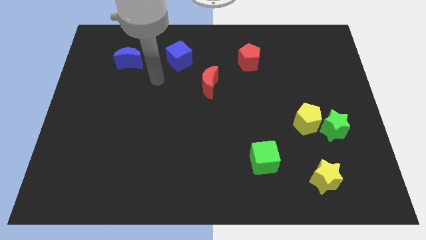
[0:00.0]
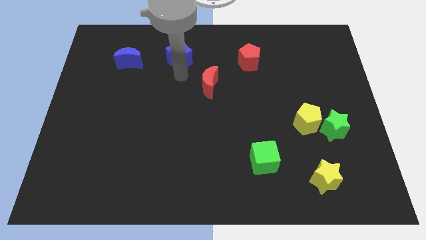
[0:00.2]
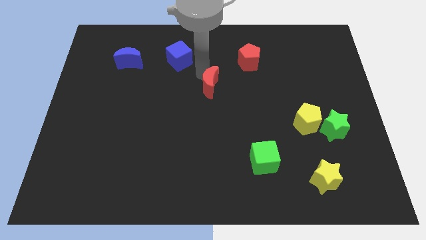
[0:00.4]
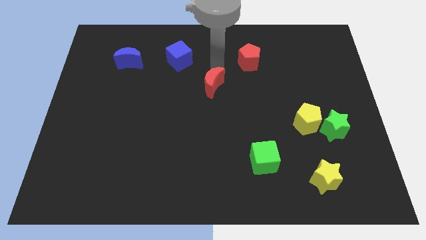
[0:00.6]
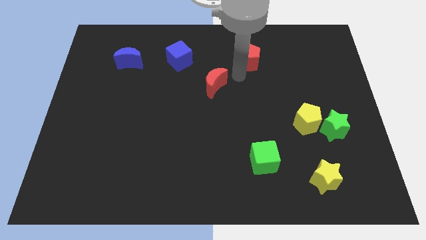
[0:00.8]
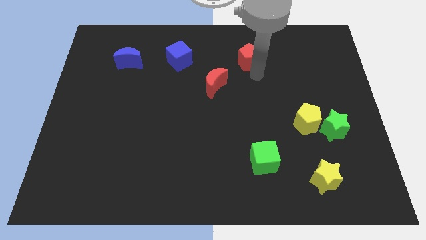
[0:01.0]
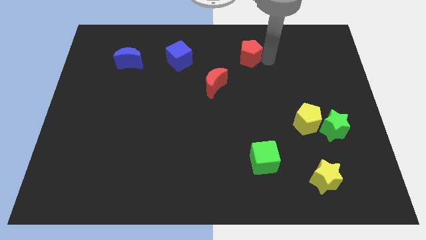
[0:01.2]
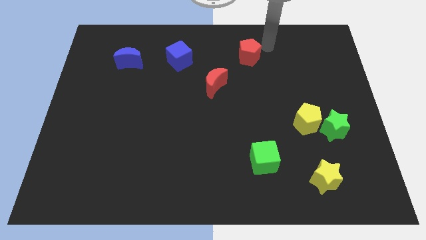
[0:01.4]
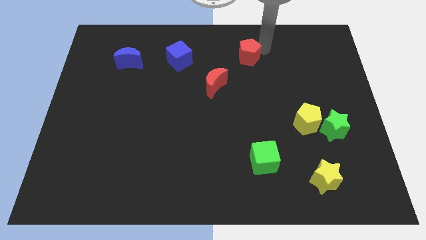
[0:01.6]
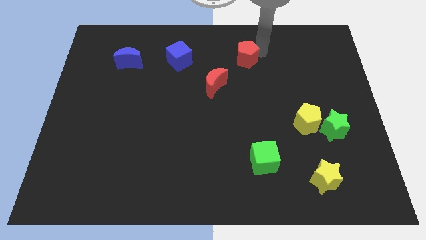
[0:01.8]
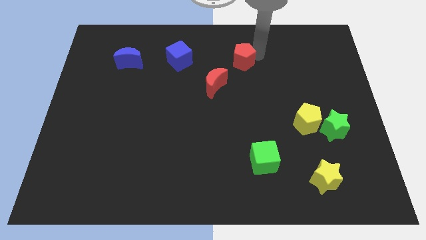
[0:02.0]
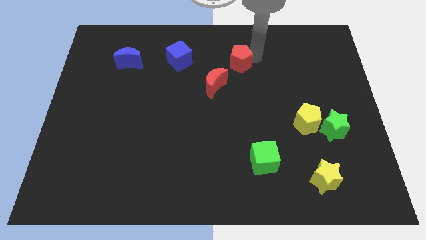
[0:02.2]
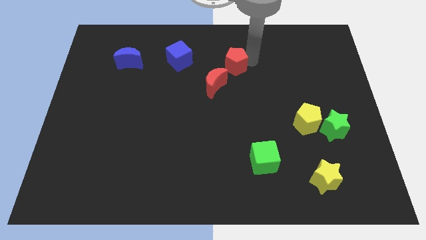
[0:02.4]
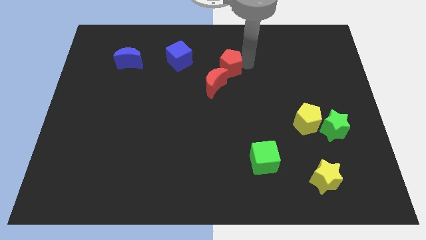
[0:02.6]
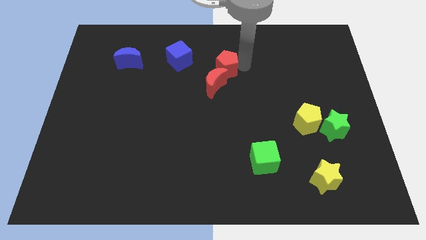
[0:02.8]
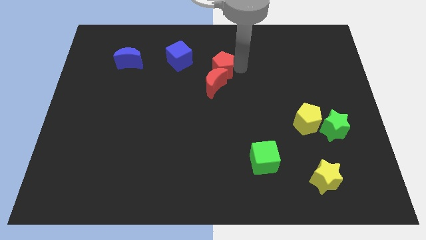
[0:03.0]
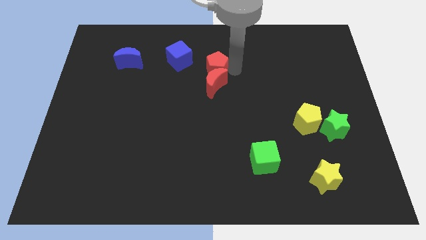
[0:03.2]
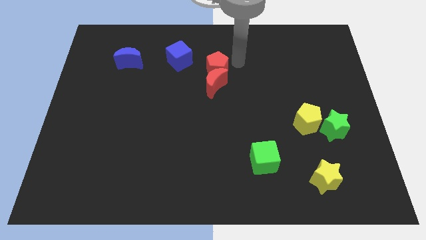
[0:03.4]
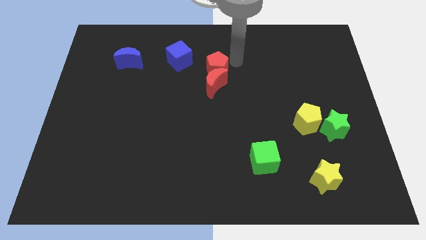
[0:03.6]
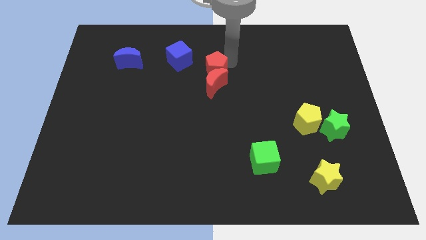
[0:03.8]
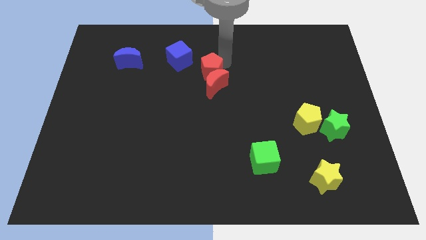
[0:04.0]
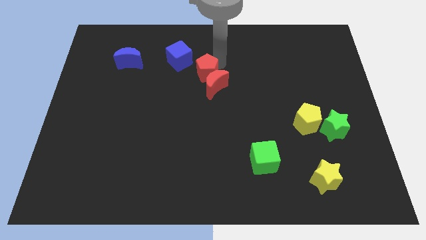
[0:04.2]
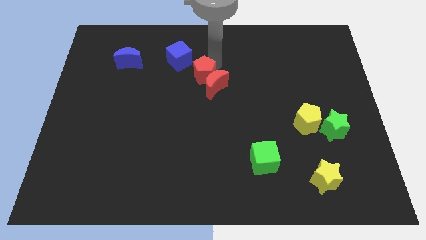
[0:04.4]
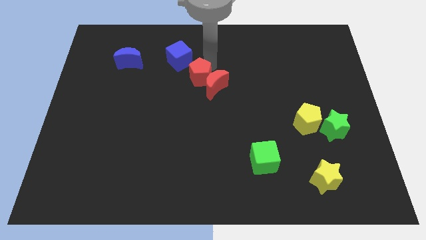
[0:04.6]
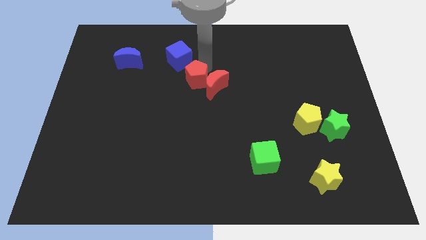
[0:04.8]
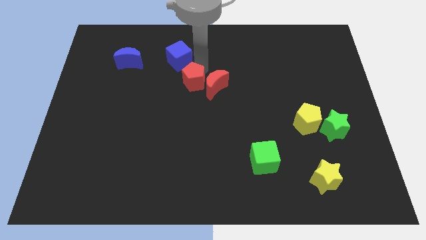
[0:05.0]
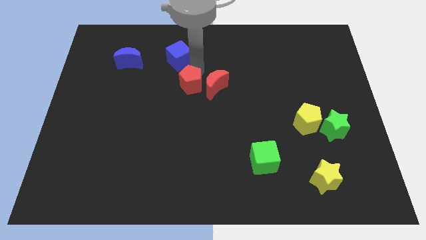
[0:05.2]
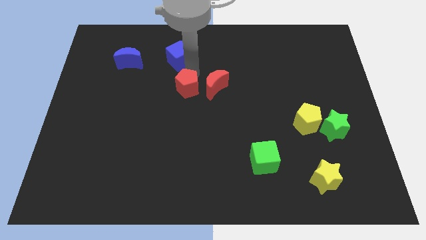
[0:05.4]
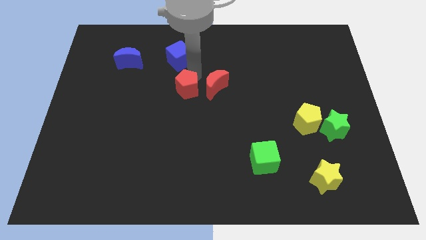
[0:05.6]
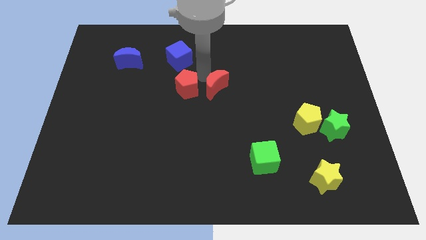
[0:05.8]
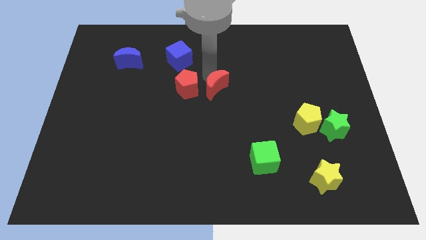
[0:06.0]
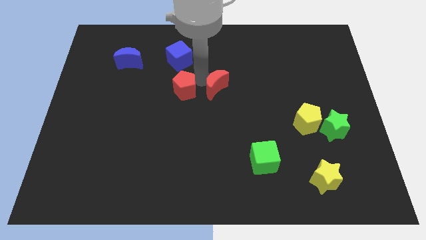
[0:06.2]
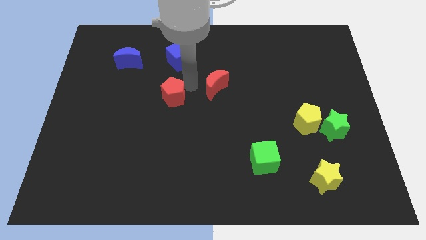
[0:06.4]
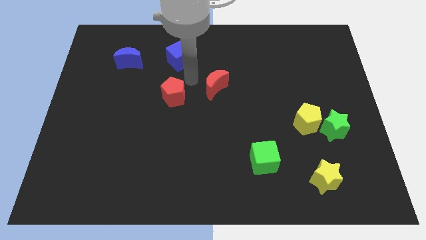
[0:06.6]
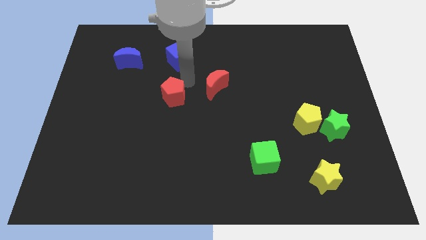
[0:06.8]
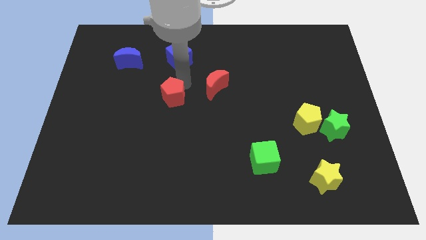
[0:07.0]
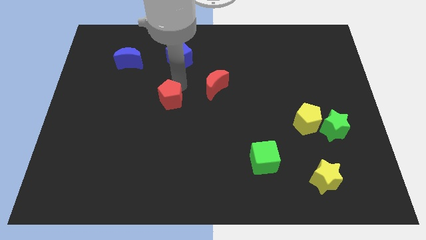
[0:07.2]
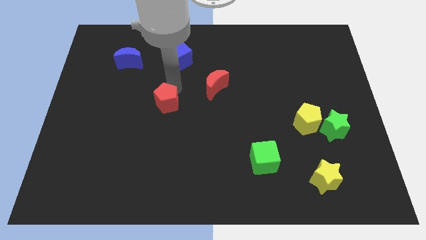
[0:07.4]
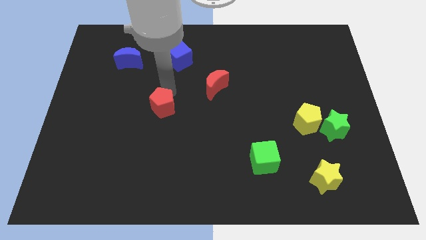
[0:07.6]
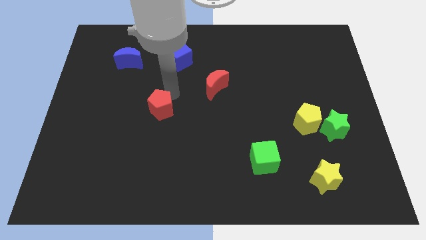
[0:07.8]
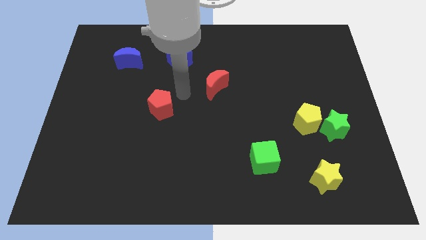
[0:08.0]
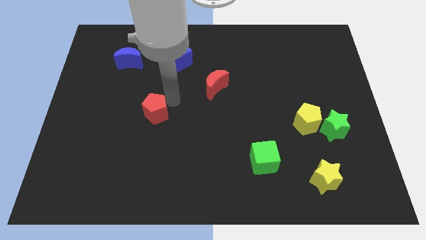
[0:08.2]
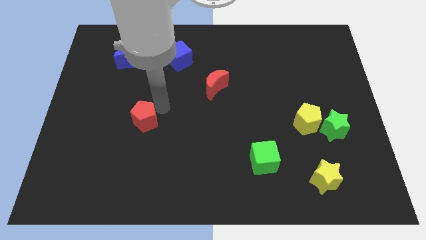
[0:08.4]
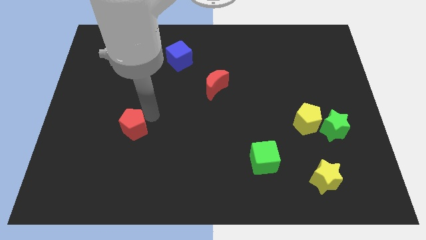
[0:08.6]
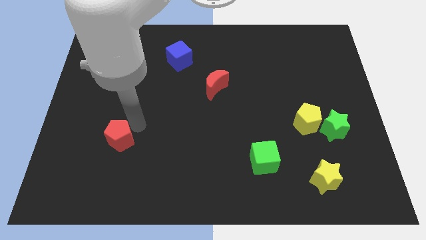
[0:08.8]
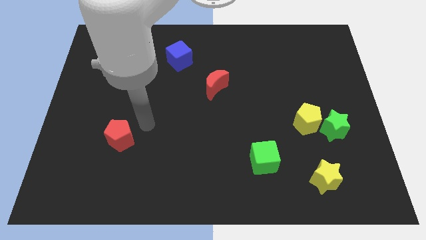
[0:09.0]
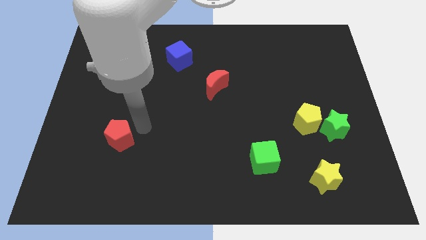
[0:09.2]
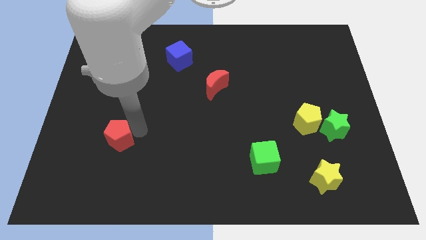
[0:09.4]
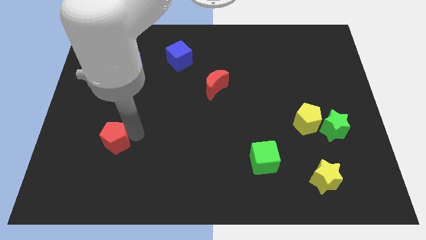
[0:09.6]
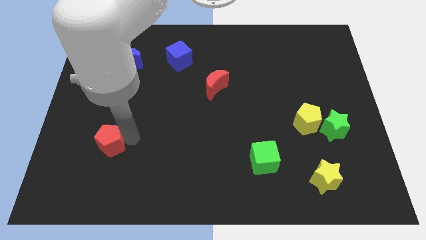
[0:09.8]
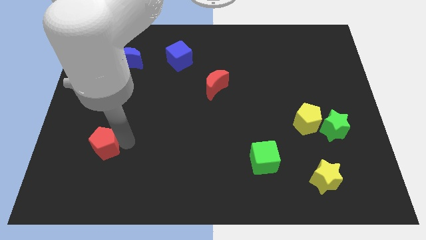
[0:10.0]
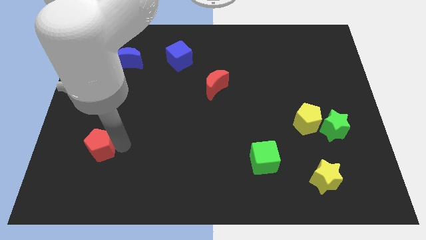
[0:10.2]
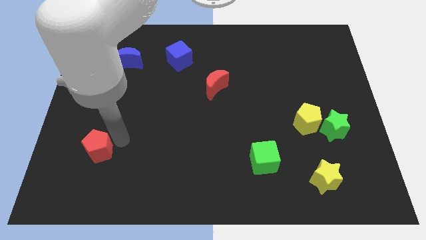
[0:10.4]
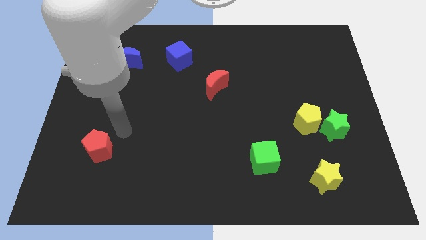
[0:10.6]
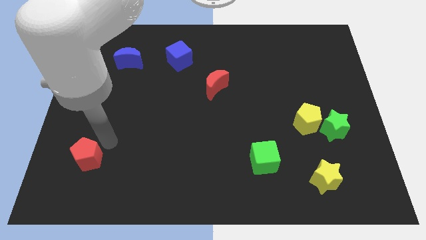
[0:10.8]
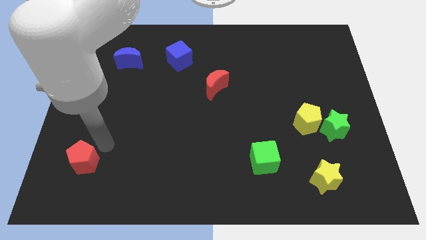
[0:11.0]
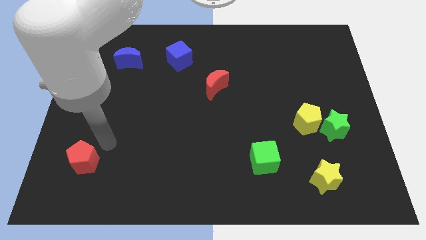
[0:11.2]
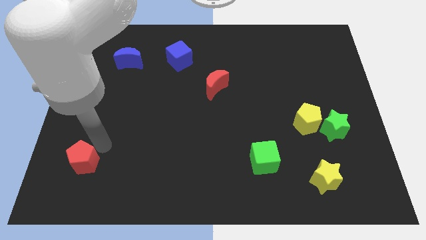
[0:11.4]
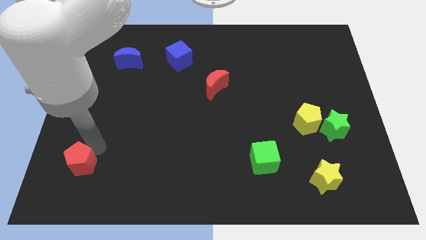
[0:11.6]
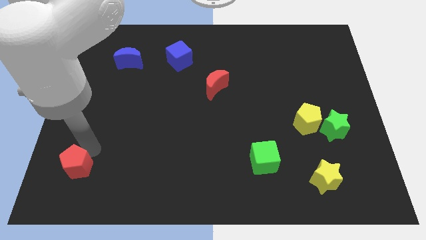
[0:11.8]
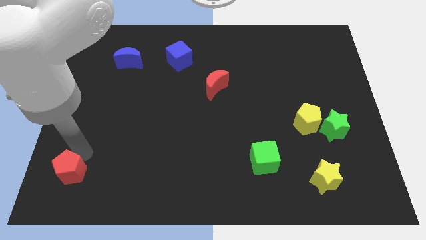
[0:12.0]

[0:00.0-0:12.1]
push the red pentagon to the lower left corner
